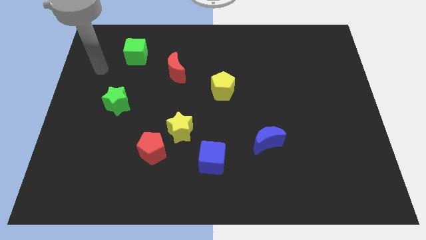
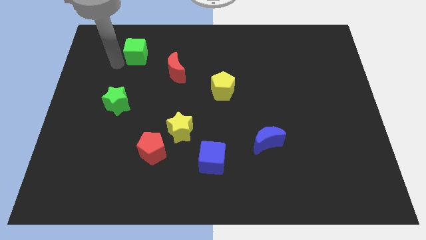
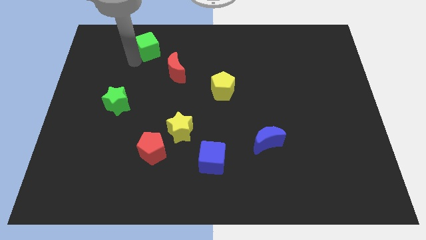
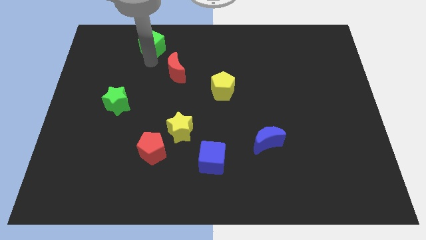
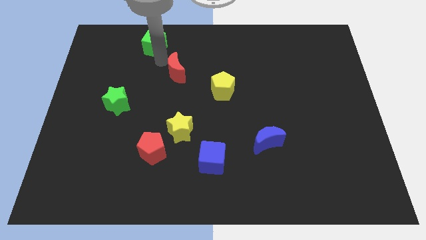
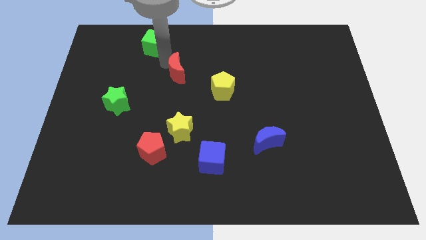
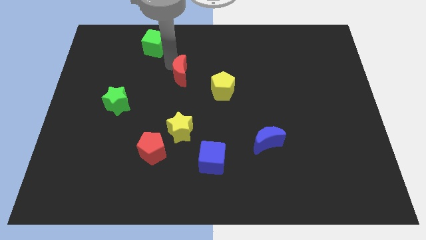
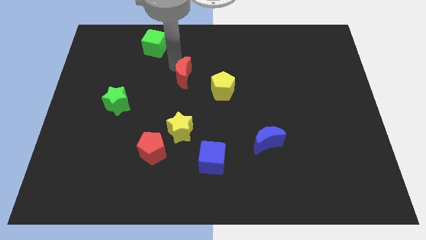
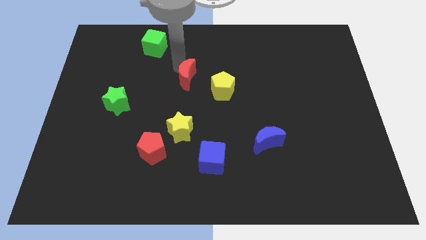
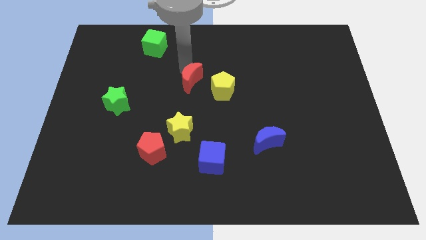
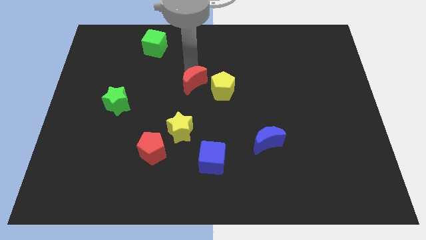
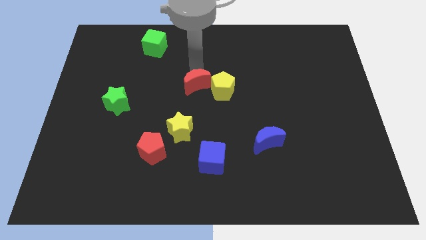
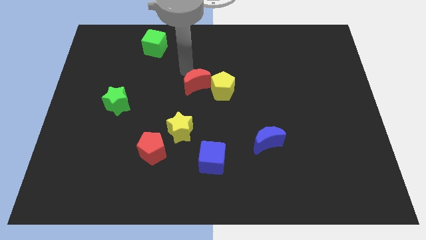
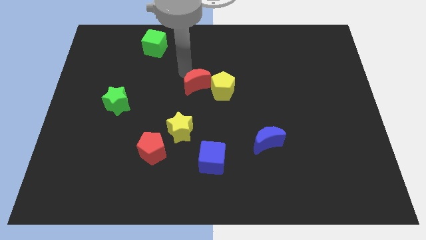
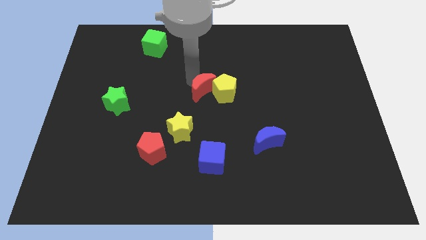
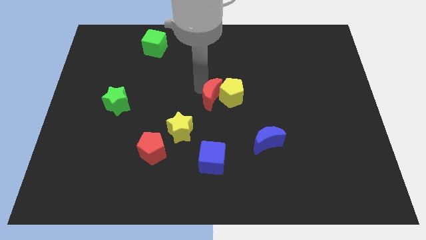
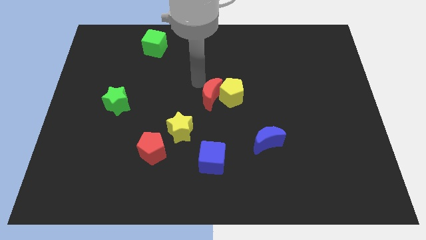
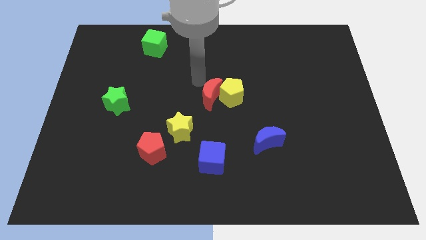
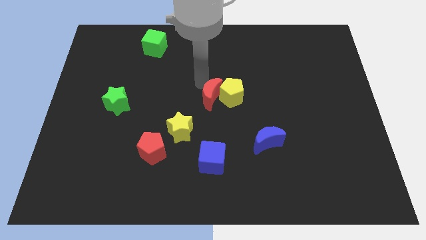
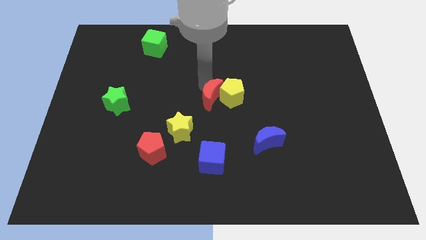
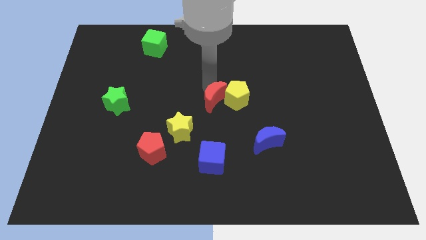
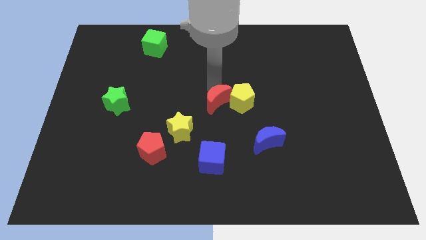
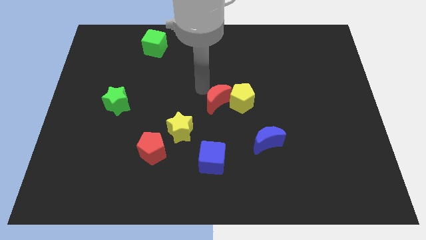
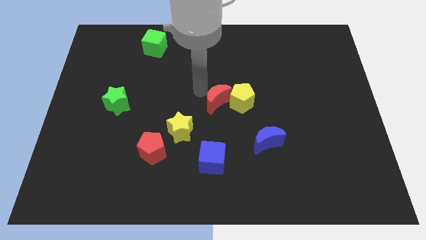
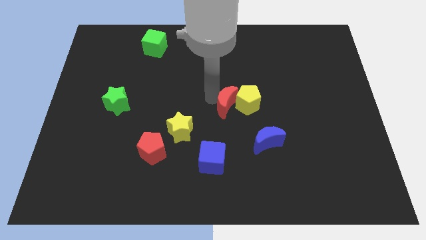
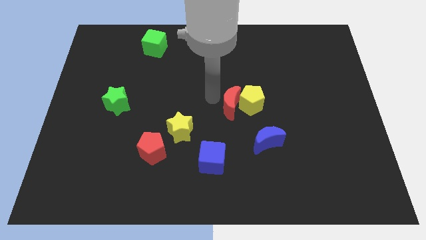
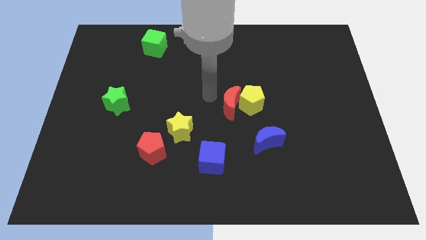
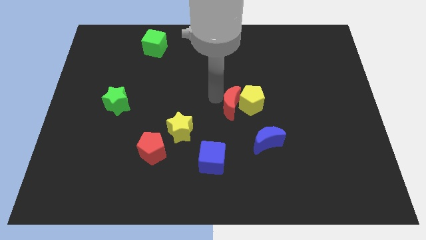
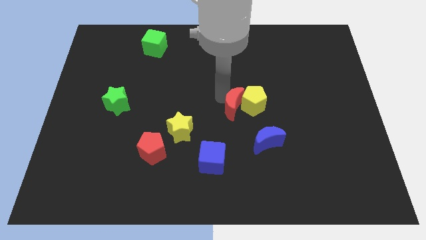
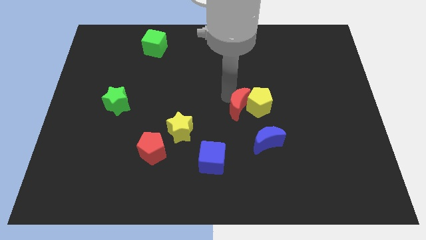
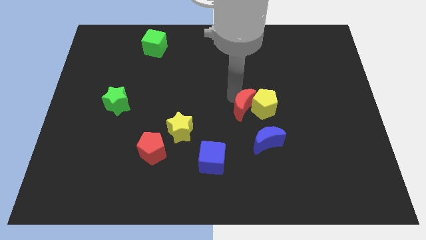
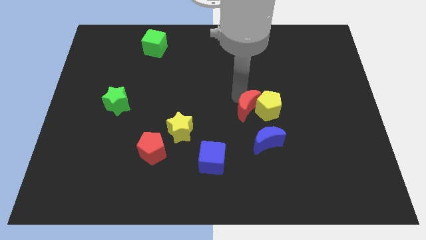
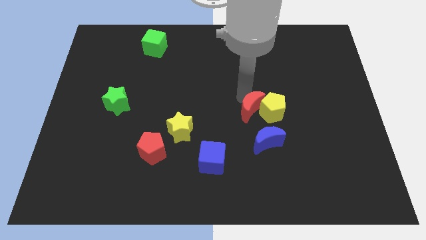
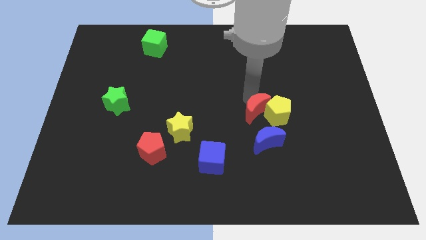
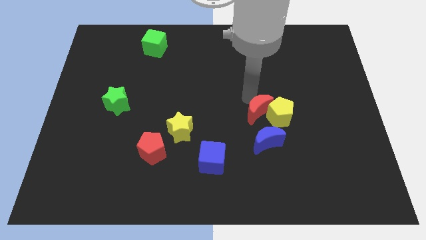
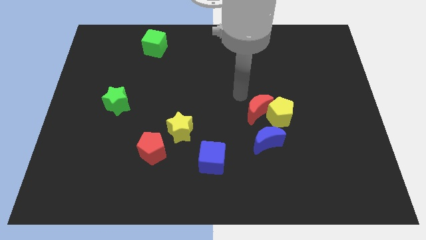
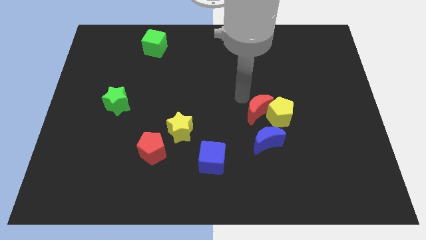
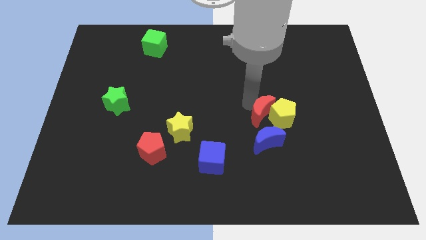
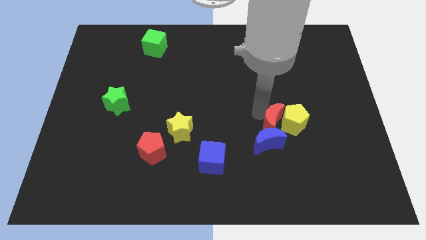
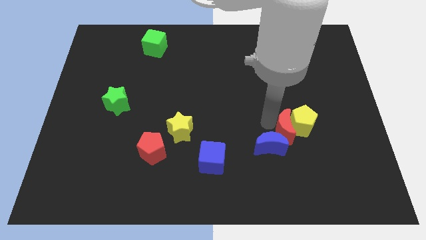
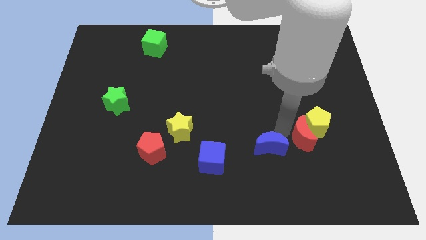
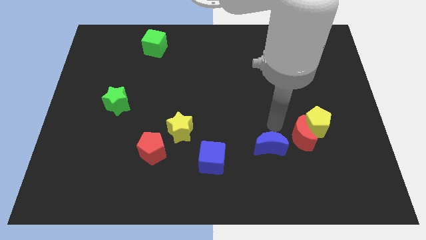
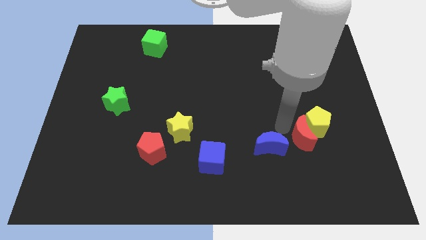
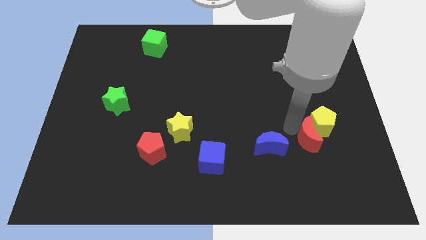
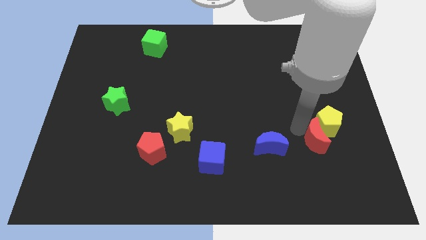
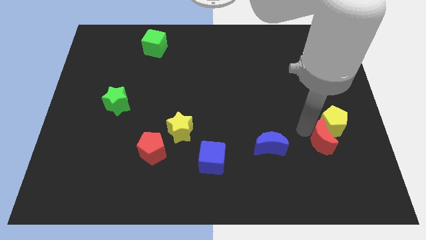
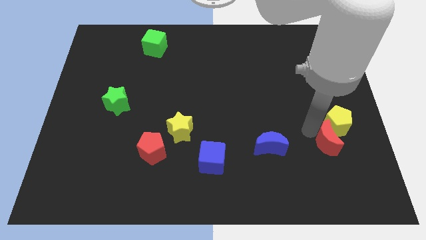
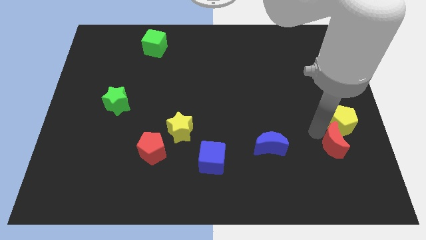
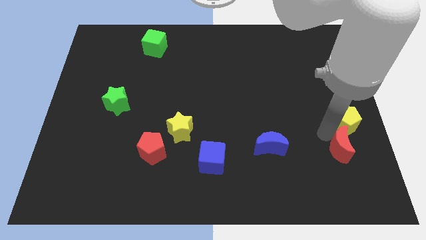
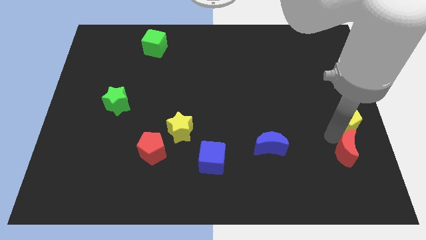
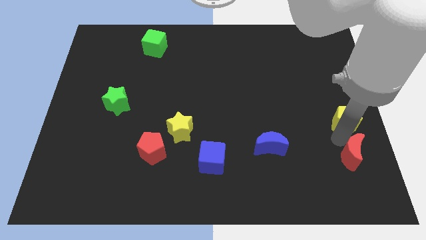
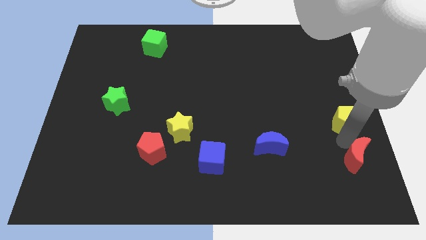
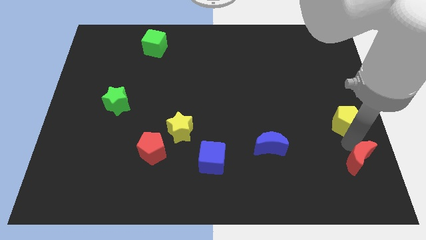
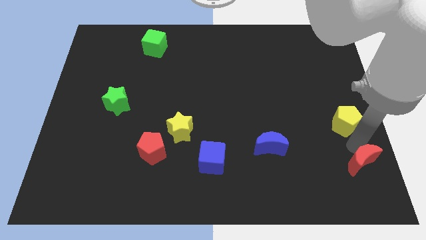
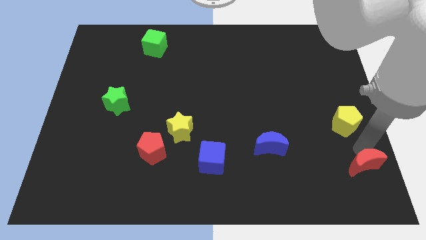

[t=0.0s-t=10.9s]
move the red moon to the bottom right of the board

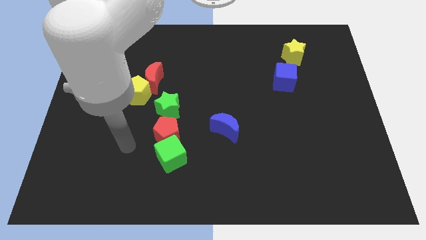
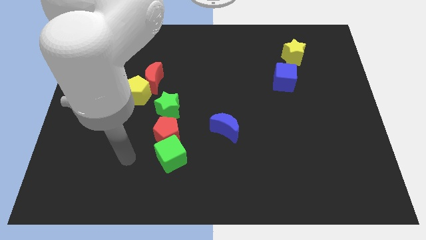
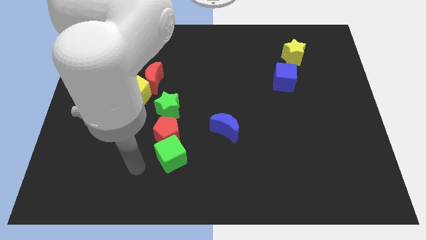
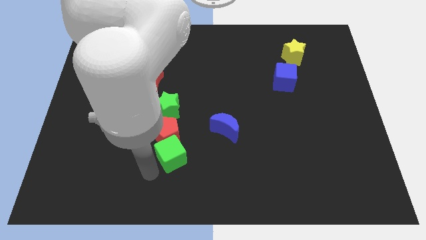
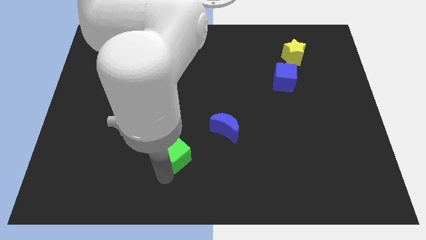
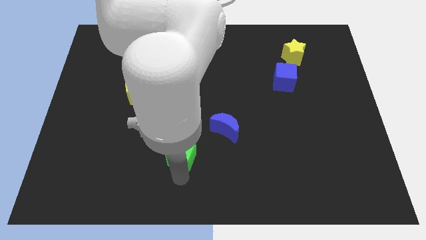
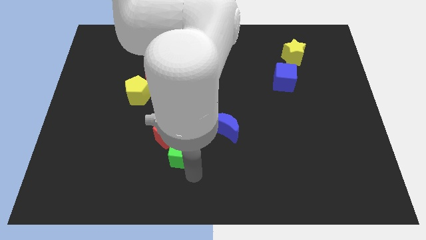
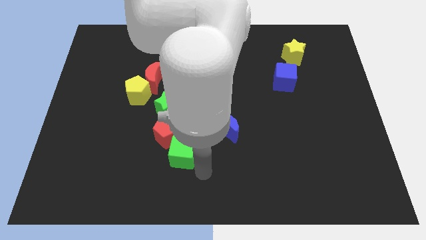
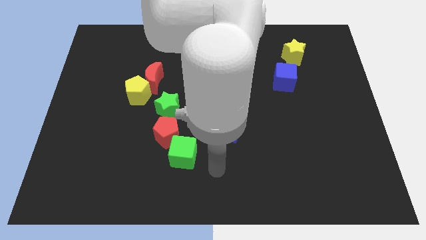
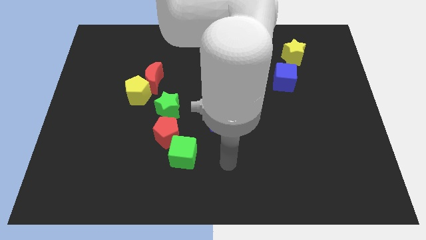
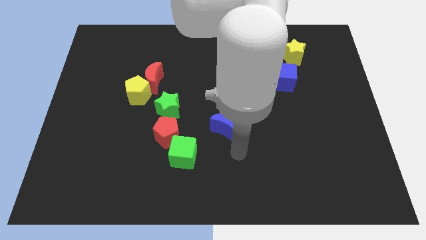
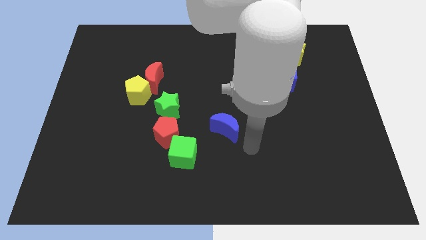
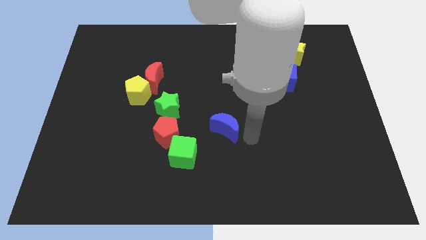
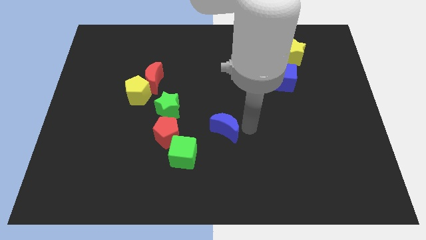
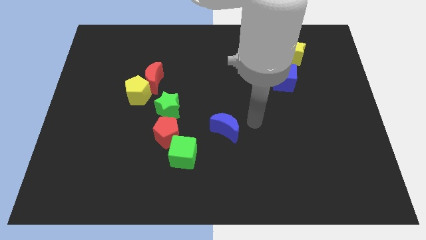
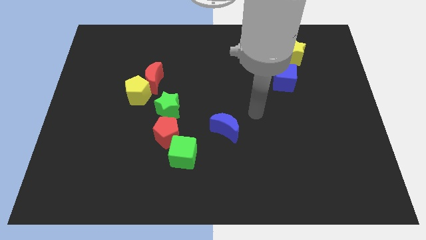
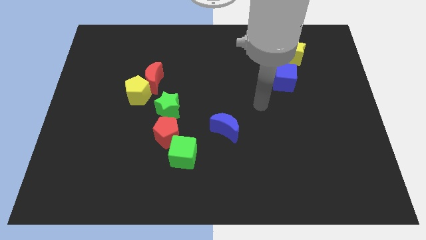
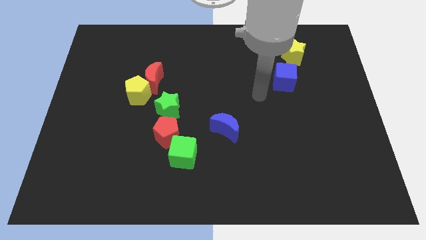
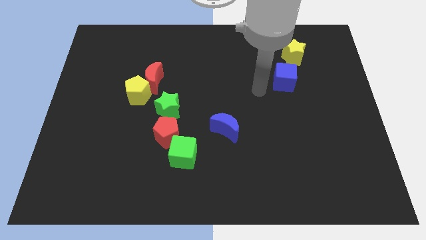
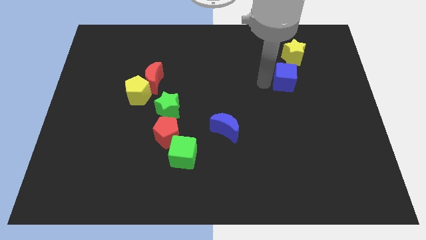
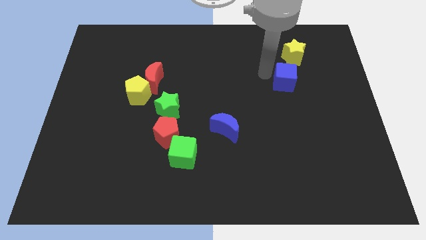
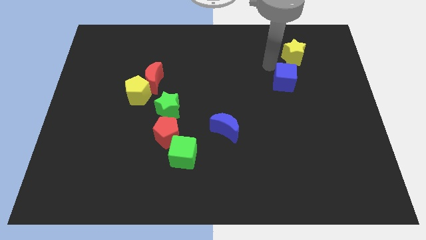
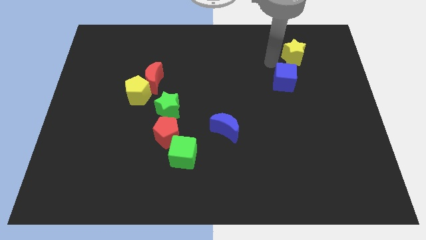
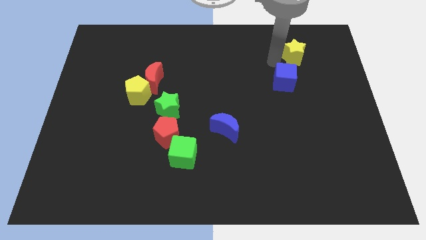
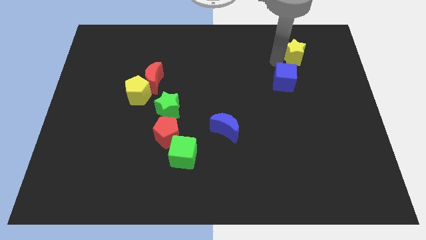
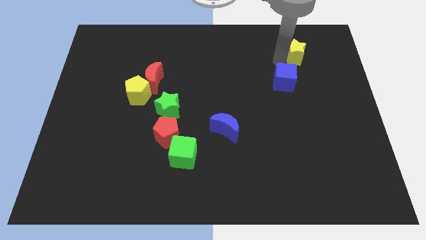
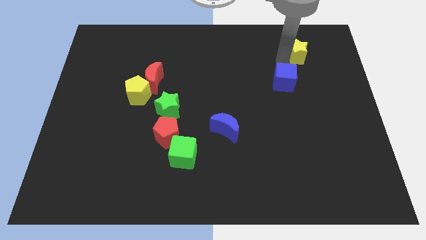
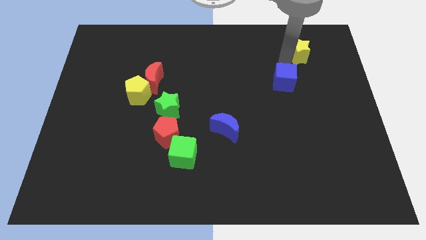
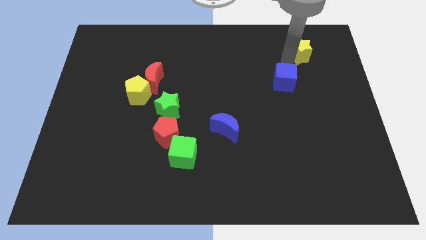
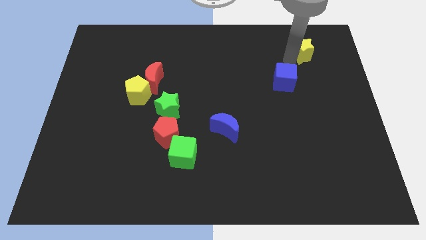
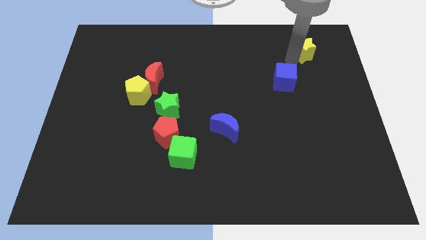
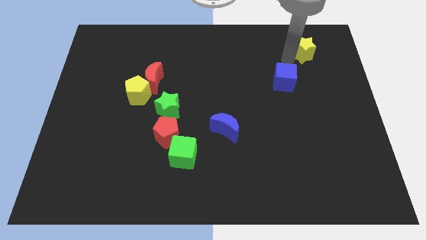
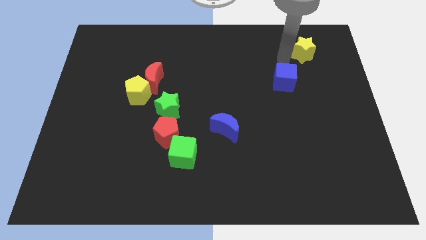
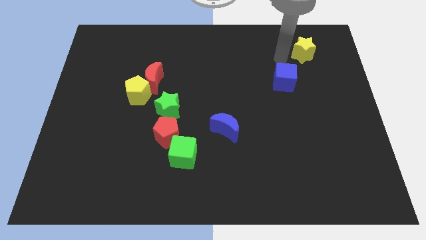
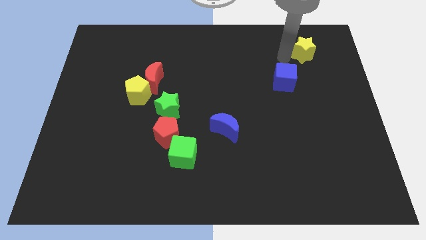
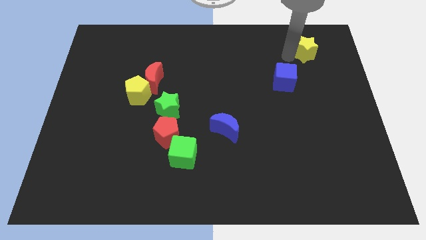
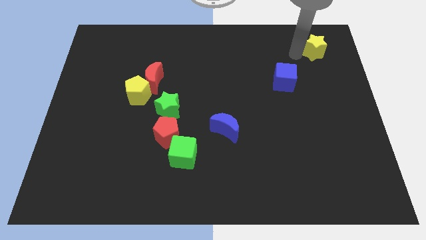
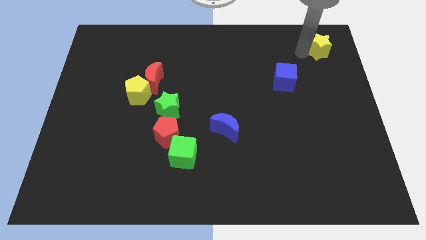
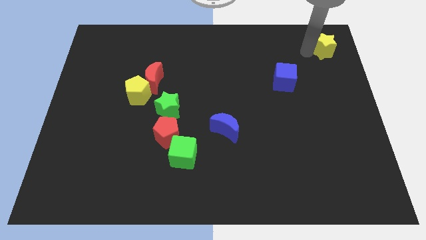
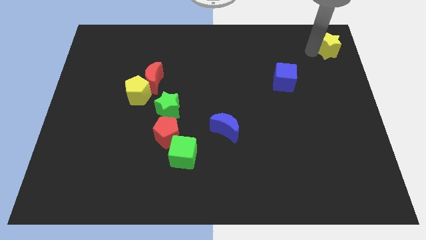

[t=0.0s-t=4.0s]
push the yellow star to the top right corner
